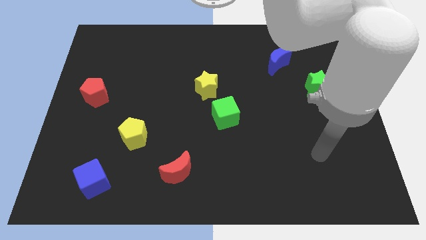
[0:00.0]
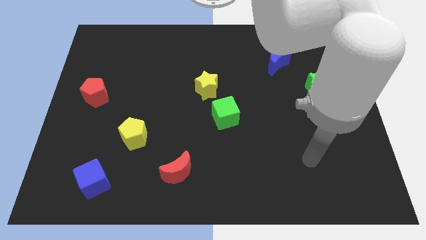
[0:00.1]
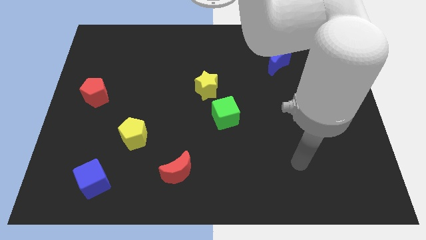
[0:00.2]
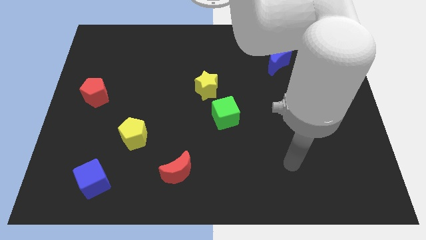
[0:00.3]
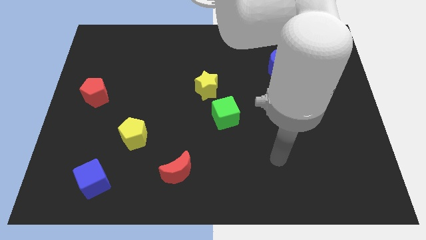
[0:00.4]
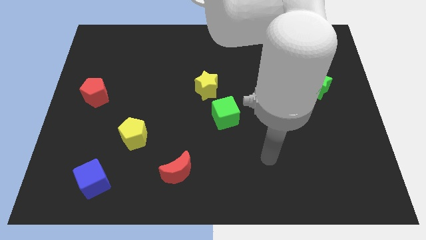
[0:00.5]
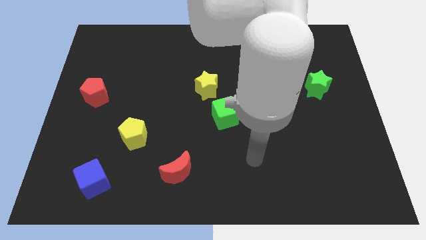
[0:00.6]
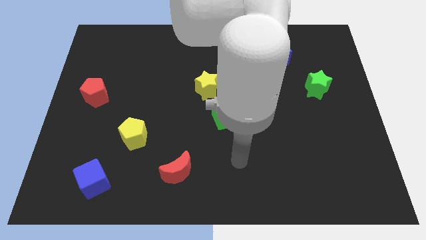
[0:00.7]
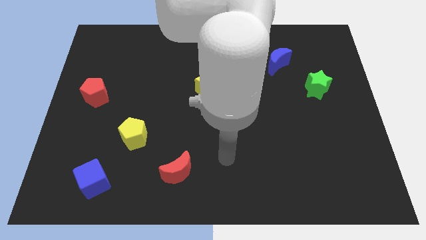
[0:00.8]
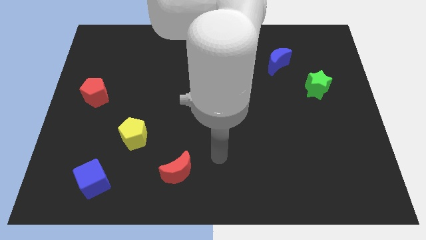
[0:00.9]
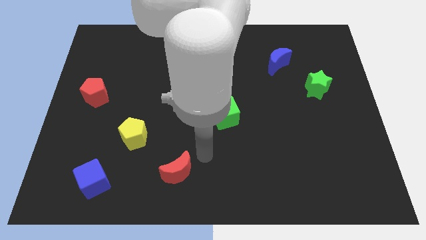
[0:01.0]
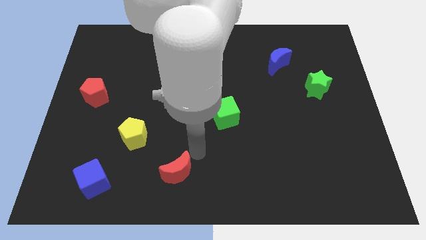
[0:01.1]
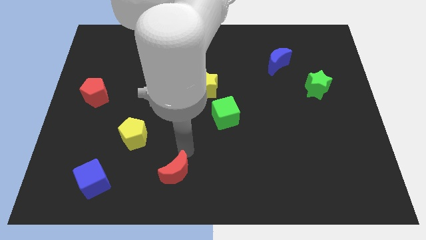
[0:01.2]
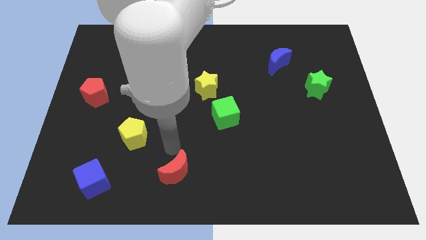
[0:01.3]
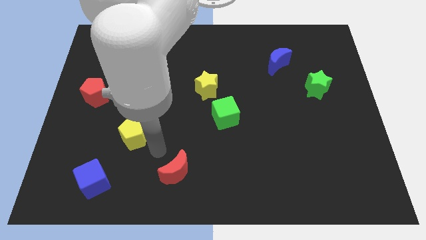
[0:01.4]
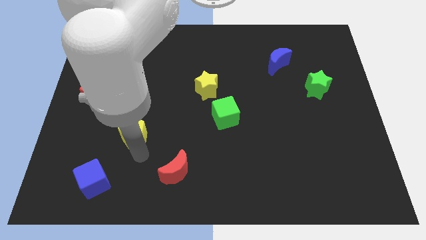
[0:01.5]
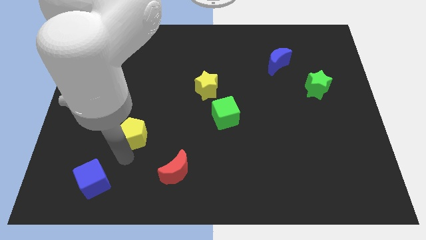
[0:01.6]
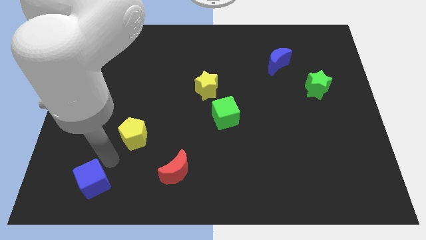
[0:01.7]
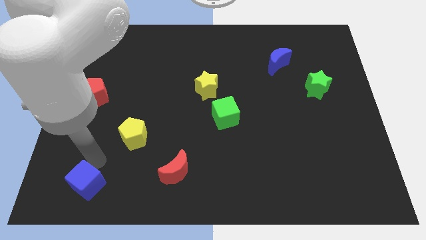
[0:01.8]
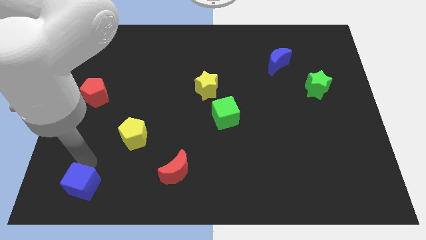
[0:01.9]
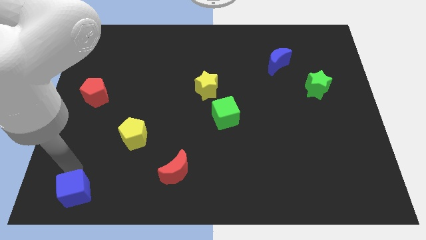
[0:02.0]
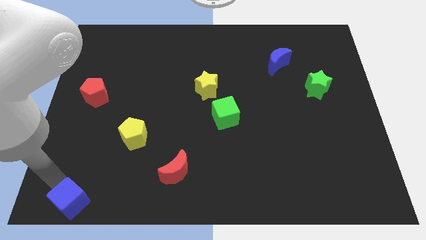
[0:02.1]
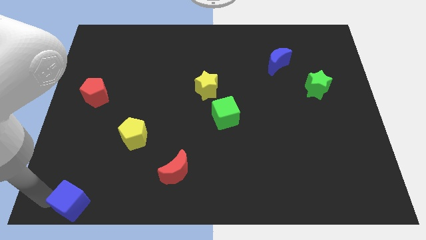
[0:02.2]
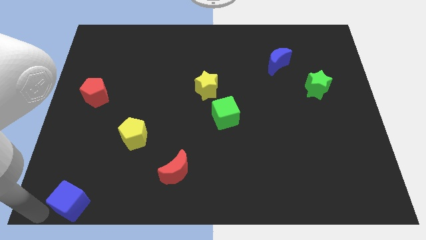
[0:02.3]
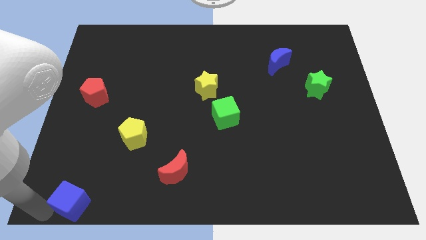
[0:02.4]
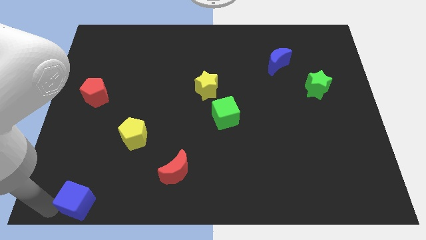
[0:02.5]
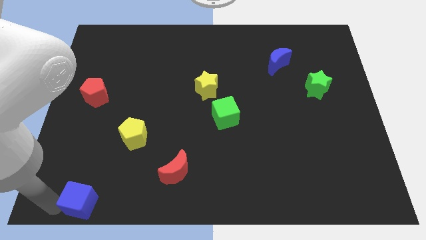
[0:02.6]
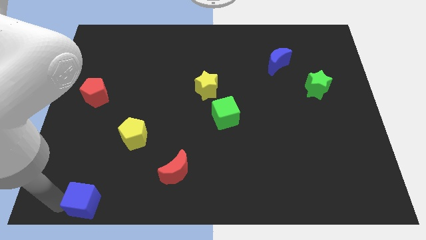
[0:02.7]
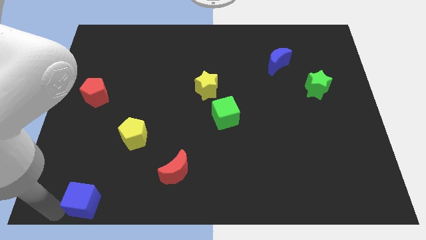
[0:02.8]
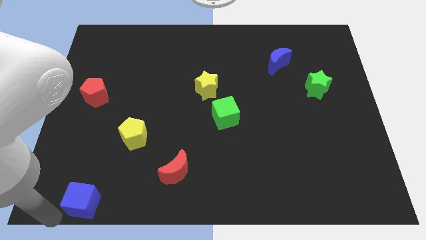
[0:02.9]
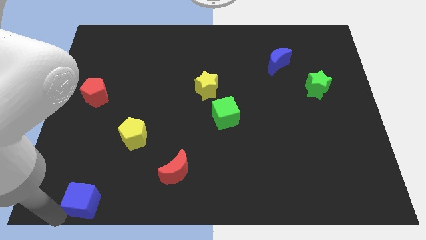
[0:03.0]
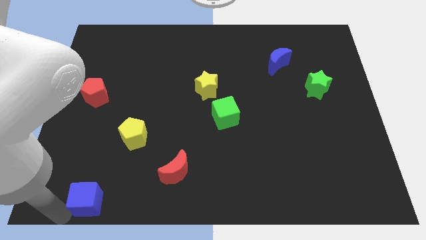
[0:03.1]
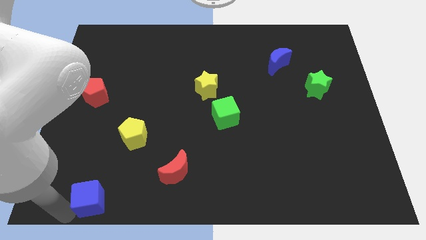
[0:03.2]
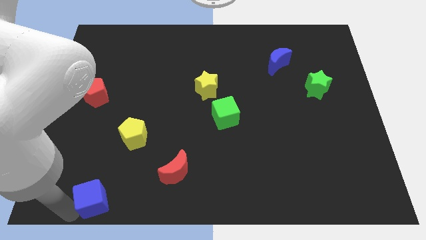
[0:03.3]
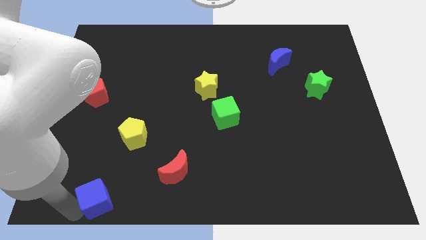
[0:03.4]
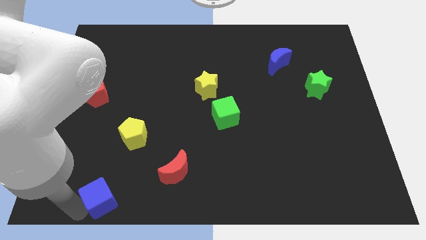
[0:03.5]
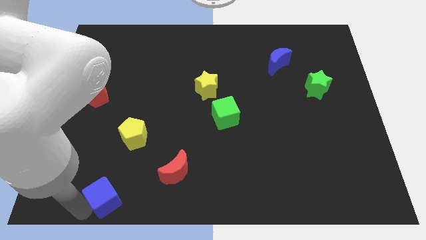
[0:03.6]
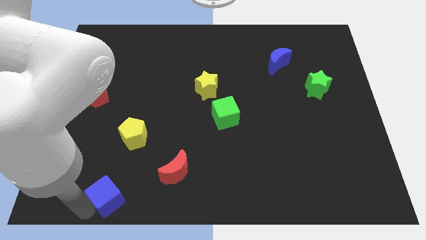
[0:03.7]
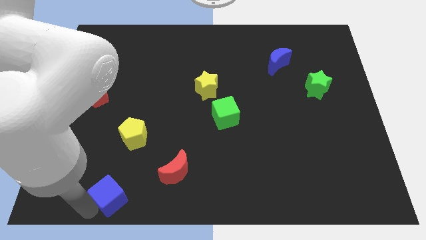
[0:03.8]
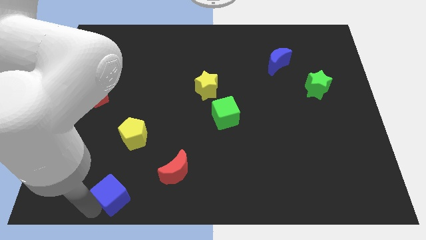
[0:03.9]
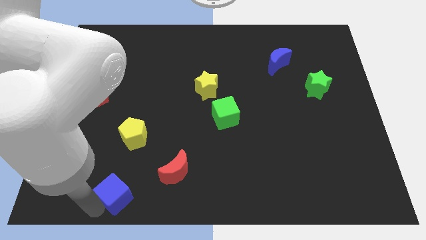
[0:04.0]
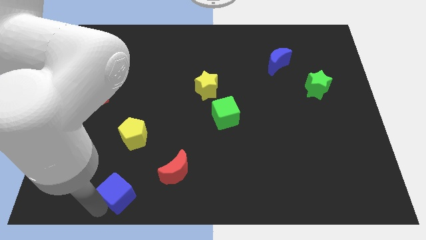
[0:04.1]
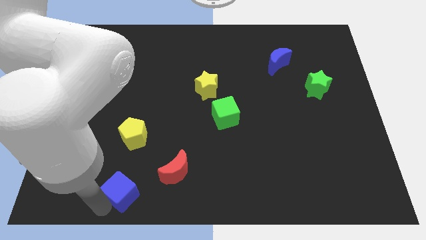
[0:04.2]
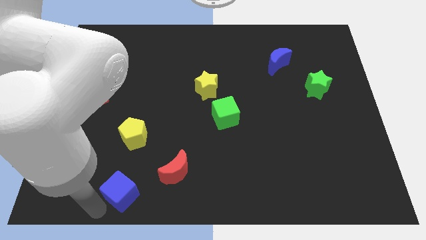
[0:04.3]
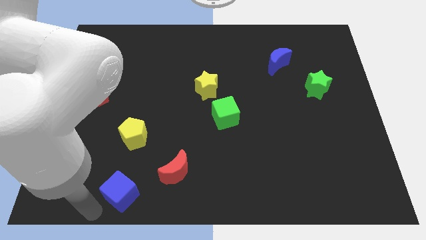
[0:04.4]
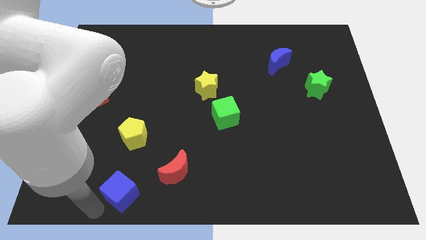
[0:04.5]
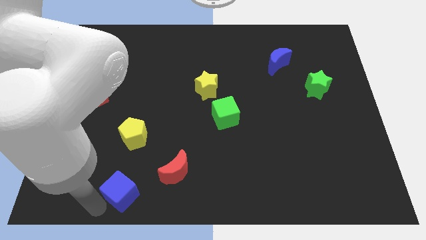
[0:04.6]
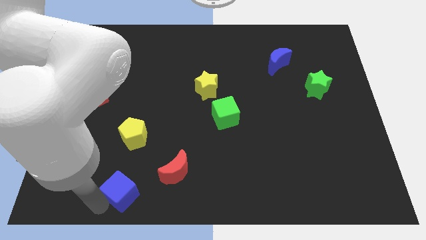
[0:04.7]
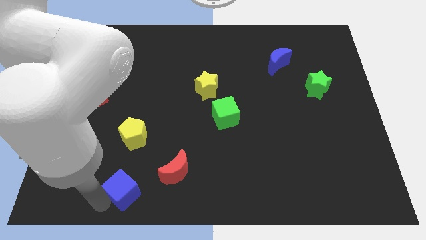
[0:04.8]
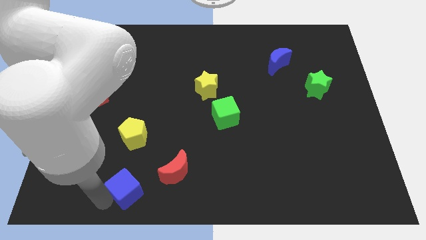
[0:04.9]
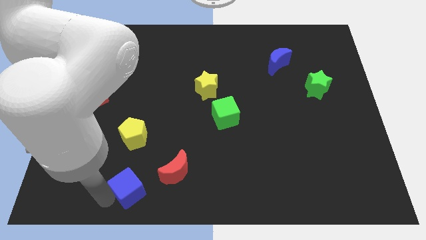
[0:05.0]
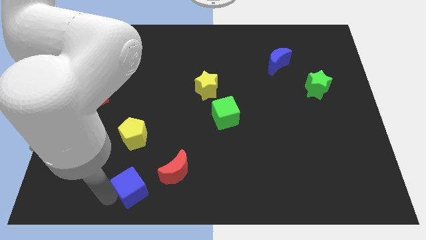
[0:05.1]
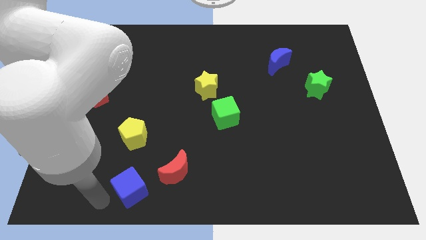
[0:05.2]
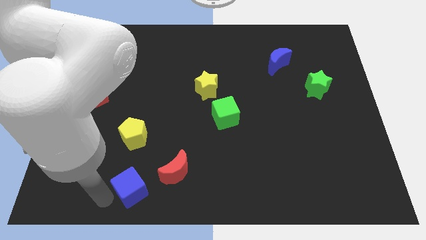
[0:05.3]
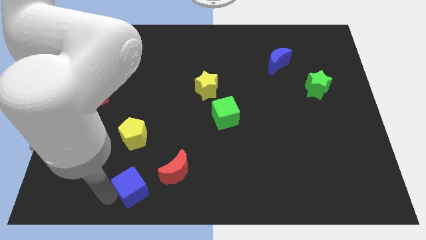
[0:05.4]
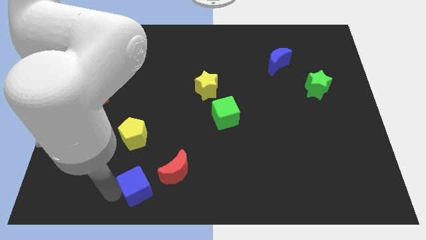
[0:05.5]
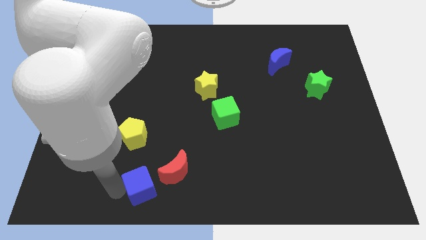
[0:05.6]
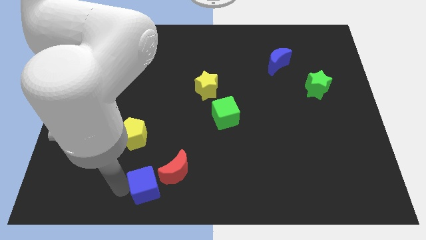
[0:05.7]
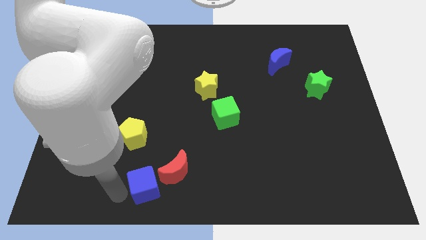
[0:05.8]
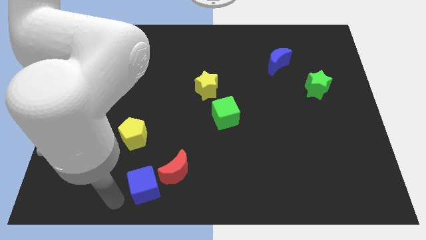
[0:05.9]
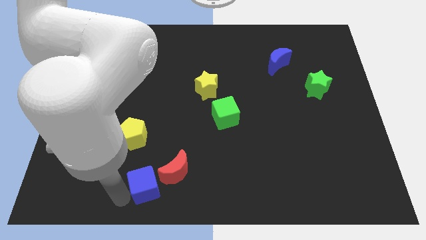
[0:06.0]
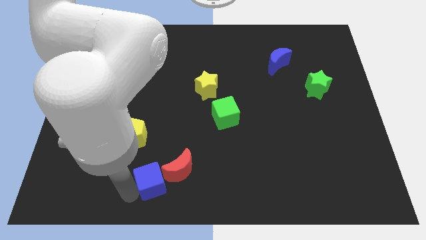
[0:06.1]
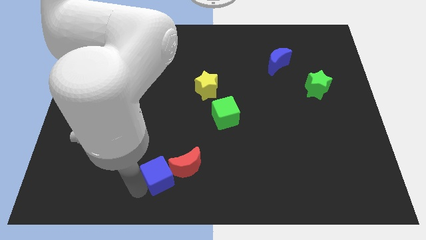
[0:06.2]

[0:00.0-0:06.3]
put the blue cube next to the red moon

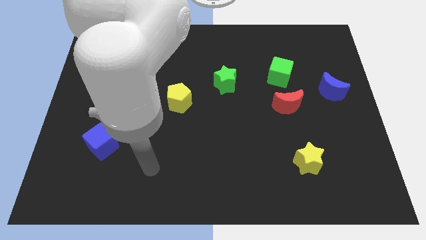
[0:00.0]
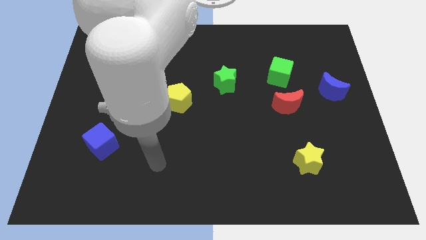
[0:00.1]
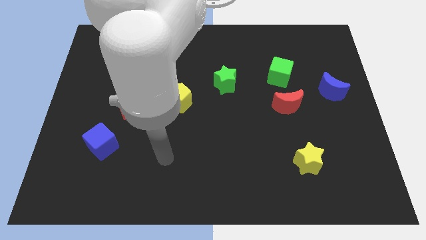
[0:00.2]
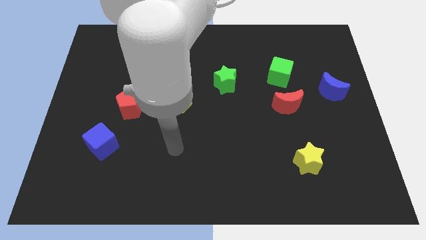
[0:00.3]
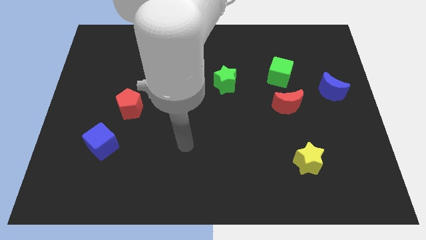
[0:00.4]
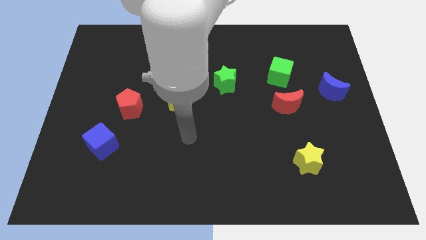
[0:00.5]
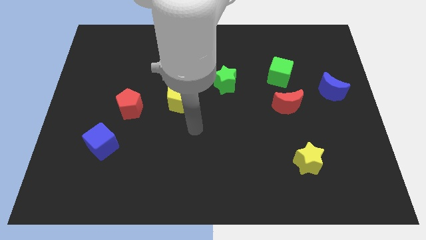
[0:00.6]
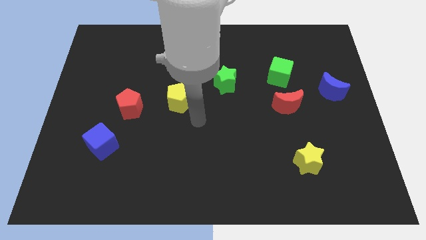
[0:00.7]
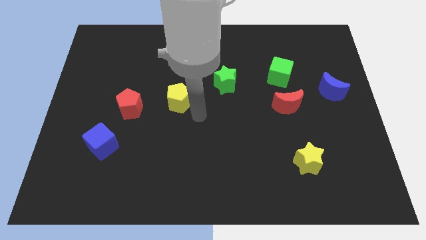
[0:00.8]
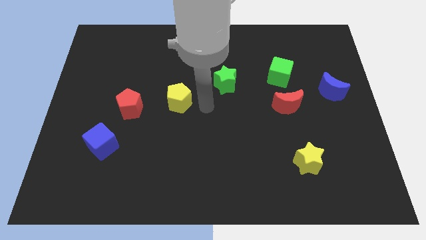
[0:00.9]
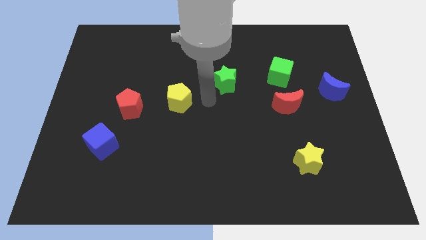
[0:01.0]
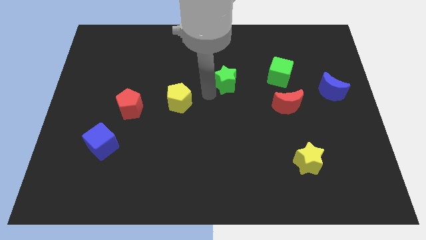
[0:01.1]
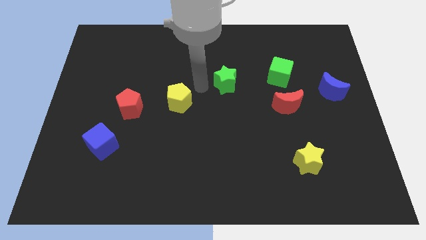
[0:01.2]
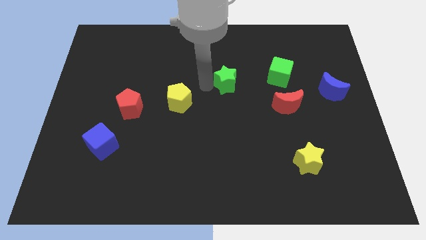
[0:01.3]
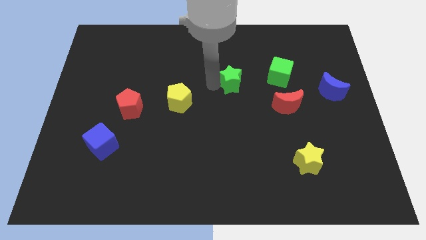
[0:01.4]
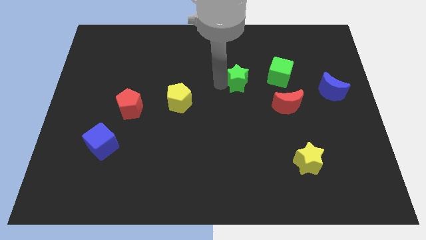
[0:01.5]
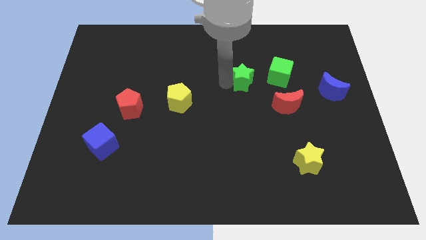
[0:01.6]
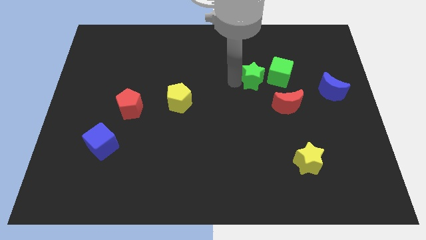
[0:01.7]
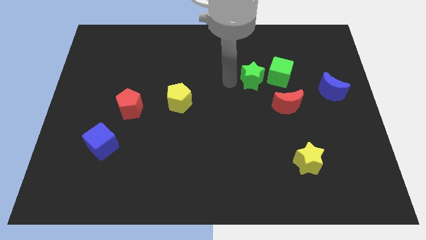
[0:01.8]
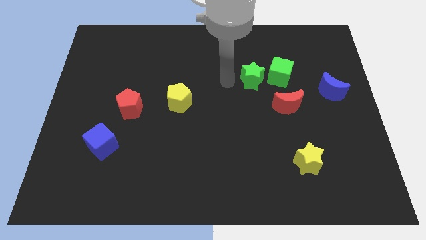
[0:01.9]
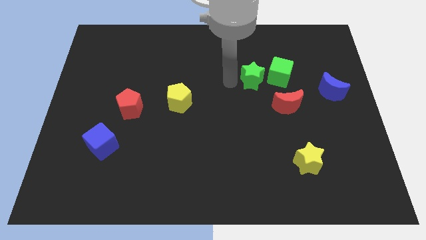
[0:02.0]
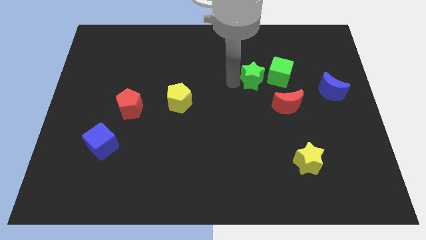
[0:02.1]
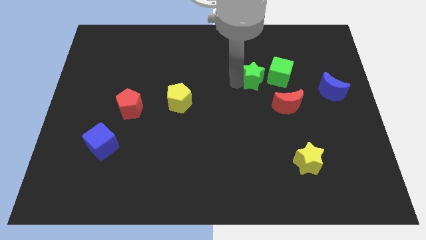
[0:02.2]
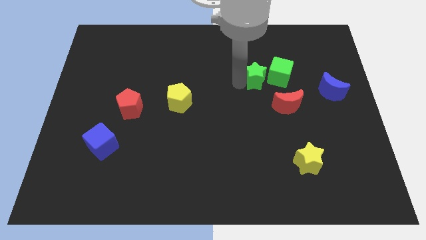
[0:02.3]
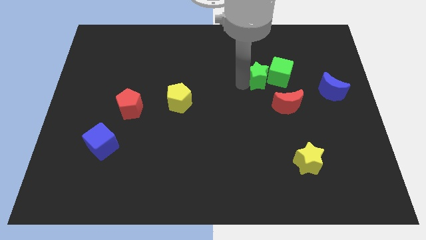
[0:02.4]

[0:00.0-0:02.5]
slide the green star close to the green cube
